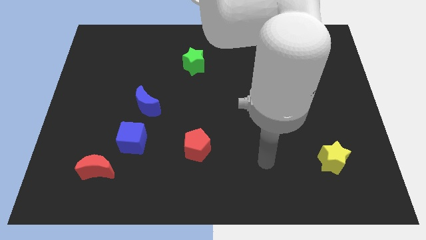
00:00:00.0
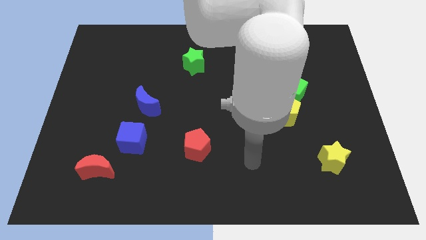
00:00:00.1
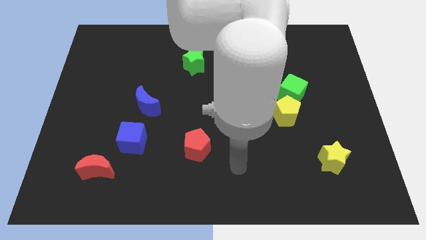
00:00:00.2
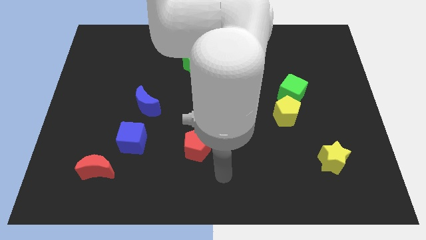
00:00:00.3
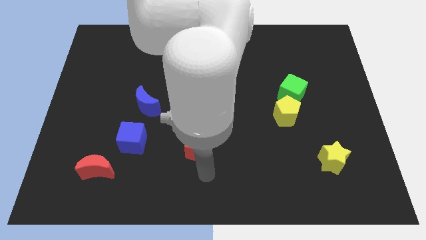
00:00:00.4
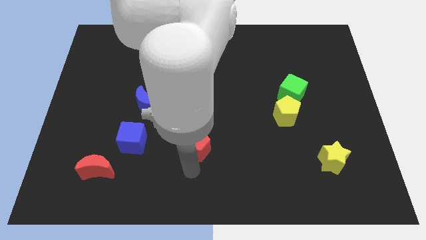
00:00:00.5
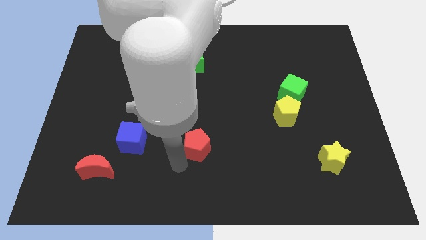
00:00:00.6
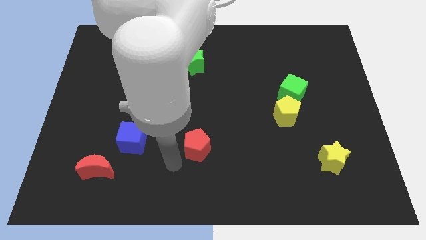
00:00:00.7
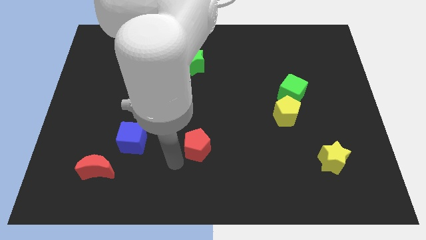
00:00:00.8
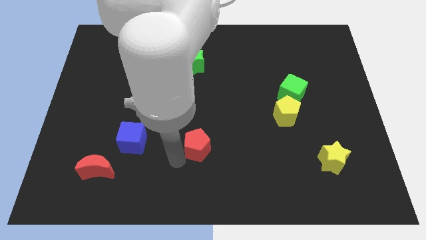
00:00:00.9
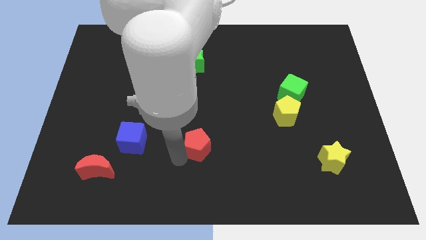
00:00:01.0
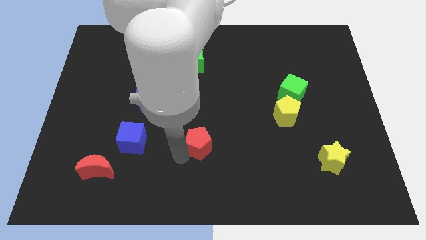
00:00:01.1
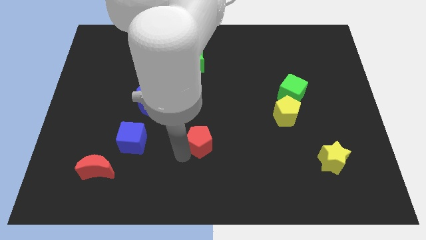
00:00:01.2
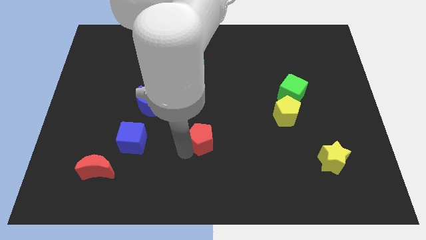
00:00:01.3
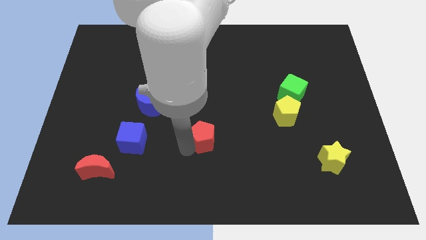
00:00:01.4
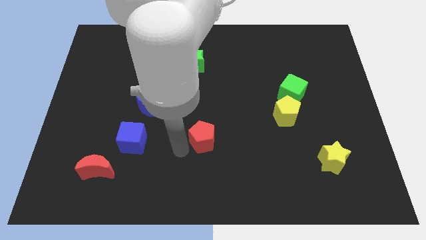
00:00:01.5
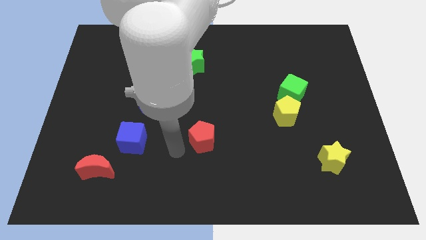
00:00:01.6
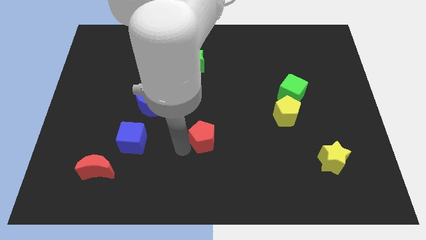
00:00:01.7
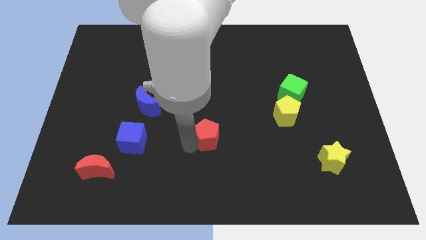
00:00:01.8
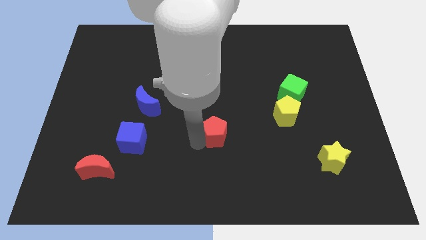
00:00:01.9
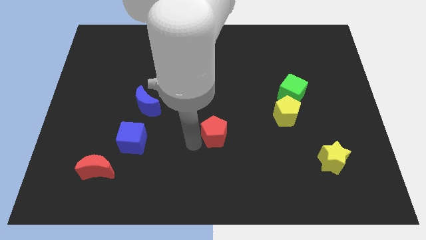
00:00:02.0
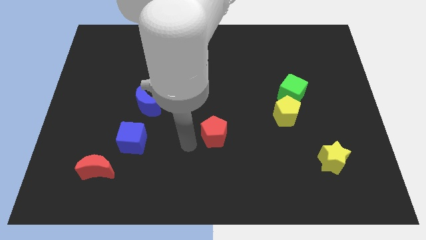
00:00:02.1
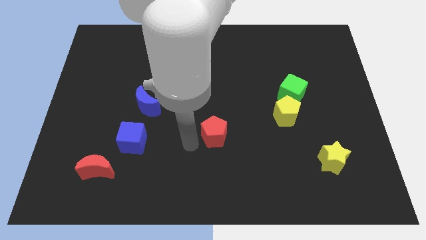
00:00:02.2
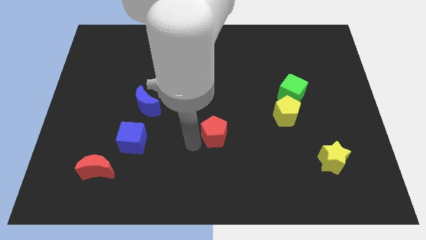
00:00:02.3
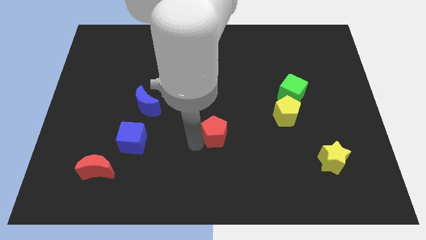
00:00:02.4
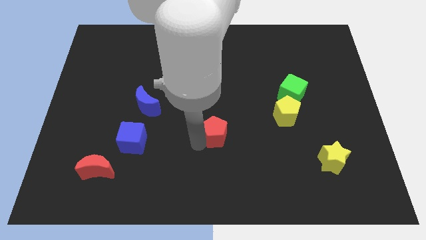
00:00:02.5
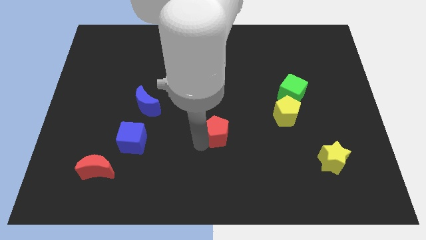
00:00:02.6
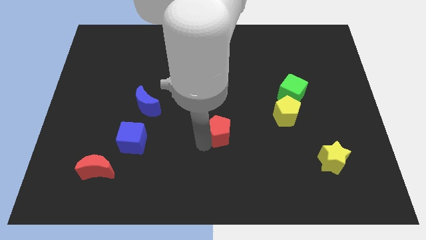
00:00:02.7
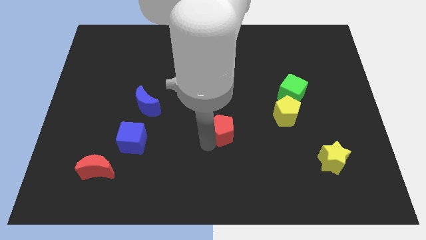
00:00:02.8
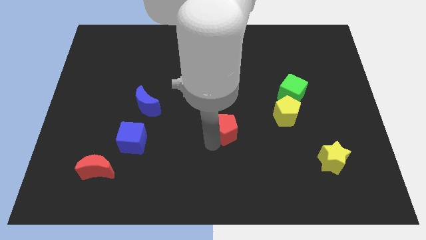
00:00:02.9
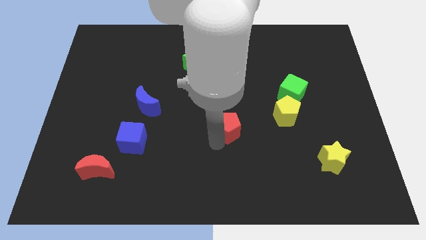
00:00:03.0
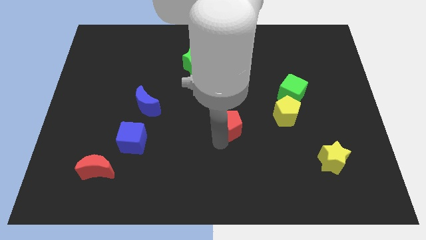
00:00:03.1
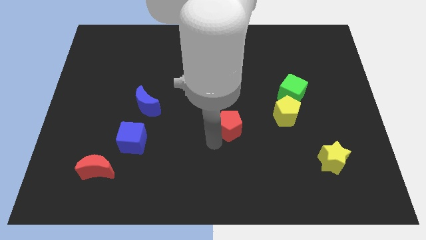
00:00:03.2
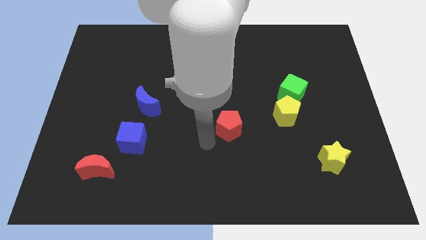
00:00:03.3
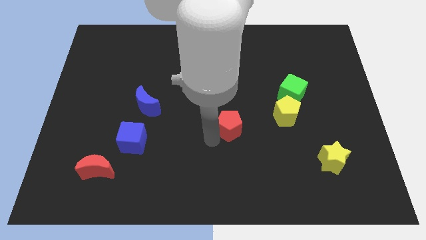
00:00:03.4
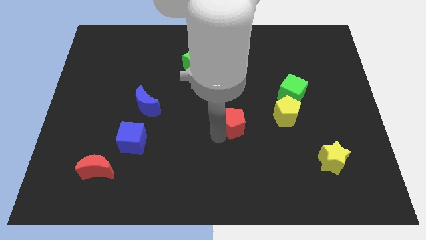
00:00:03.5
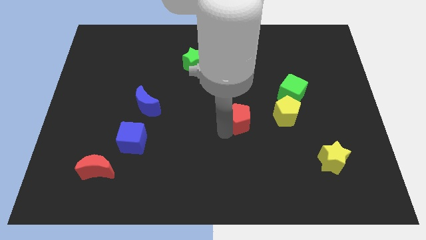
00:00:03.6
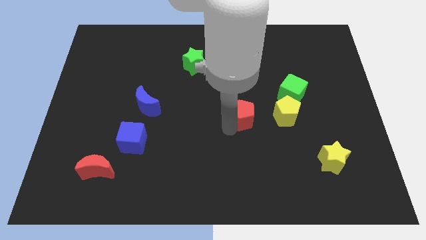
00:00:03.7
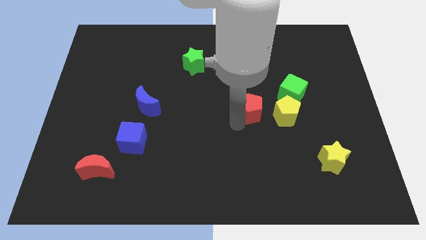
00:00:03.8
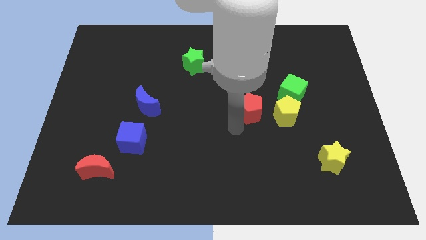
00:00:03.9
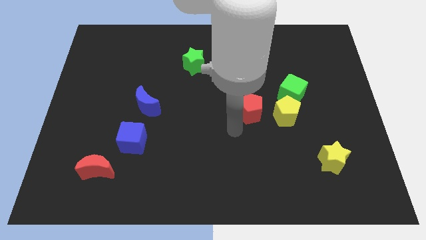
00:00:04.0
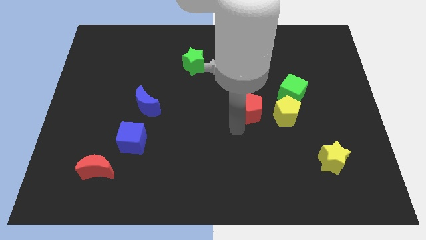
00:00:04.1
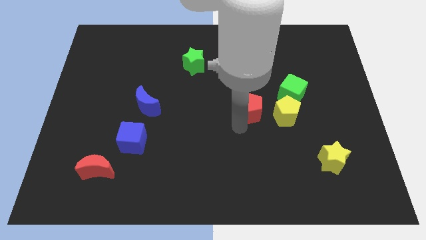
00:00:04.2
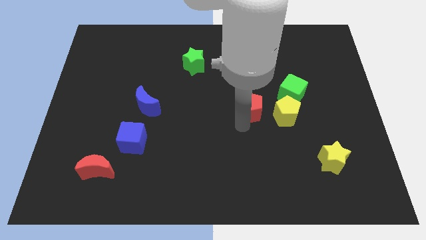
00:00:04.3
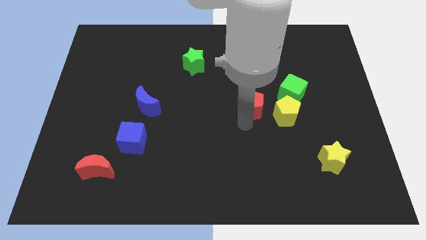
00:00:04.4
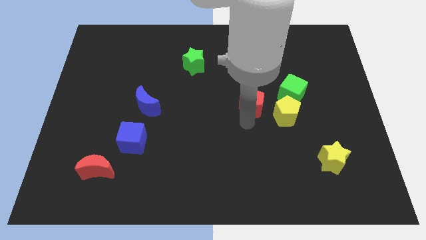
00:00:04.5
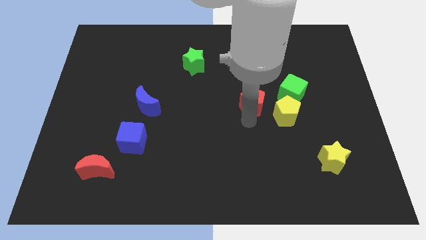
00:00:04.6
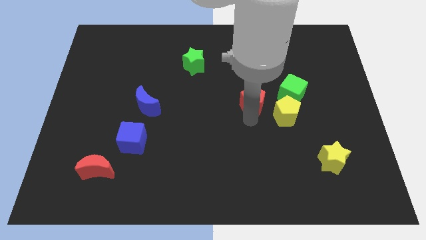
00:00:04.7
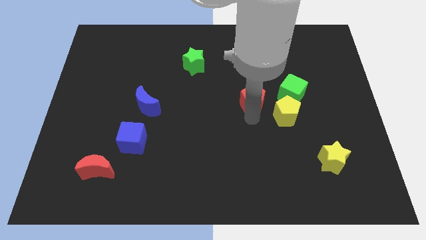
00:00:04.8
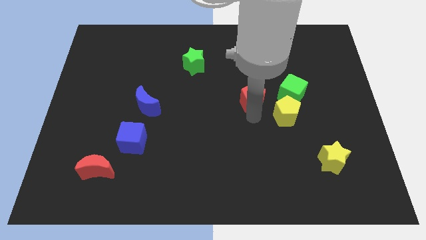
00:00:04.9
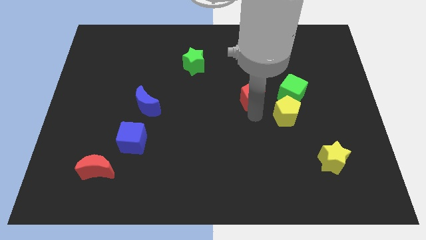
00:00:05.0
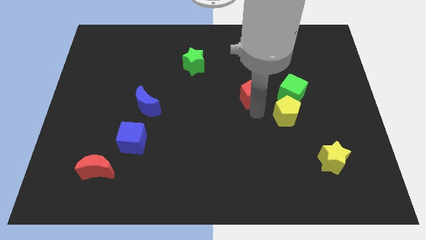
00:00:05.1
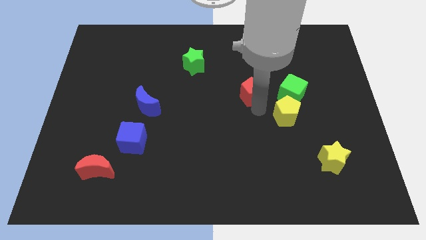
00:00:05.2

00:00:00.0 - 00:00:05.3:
slide the red pentagon diagonally up and right

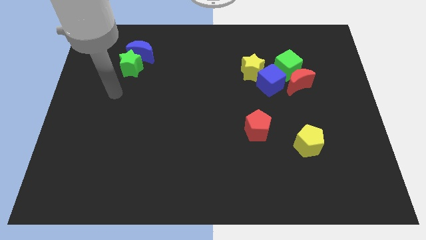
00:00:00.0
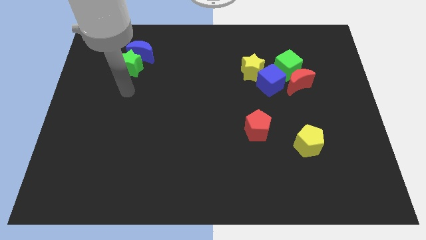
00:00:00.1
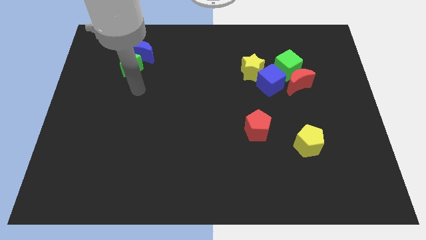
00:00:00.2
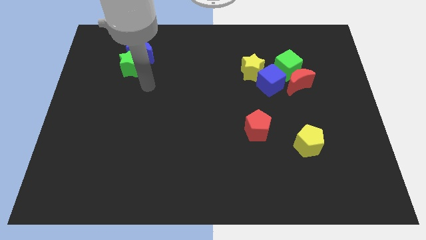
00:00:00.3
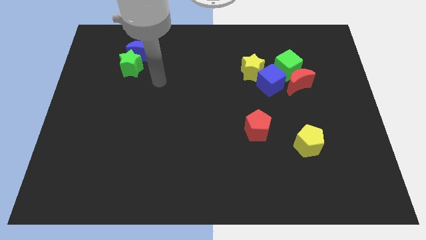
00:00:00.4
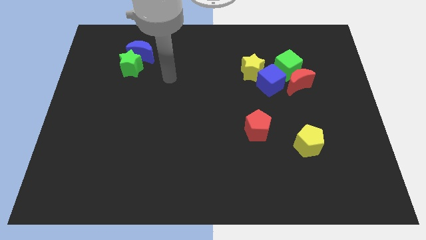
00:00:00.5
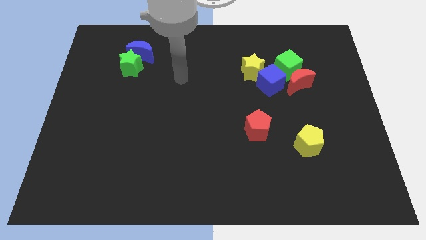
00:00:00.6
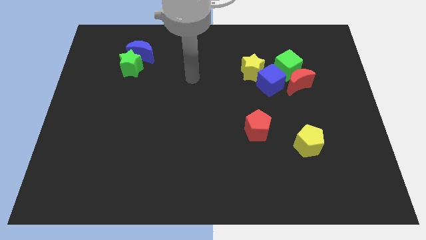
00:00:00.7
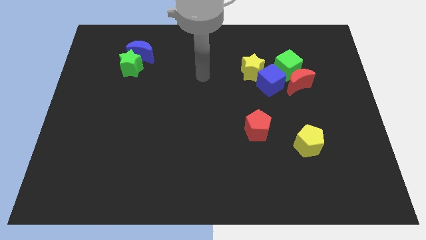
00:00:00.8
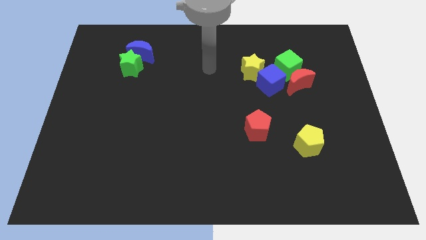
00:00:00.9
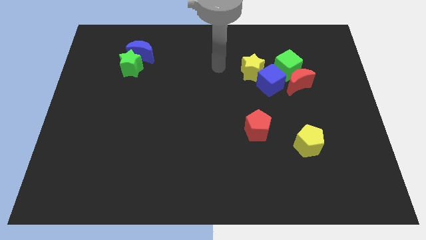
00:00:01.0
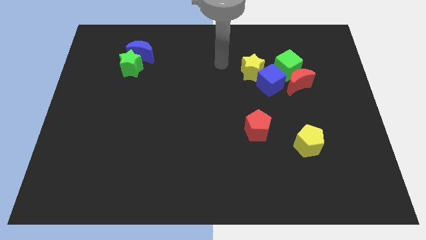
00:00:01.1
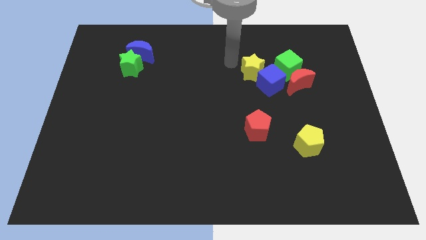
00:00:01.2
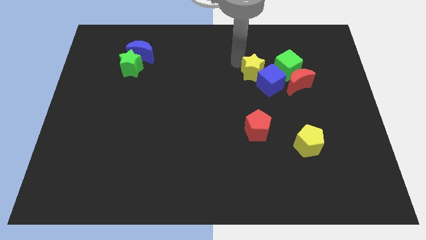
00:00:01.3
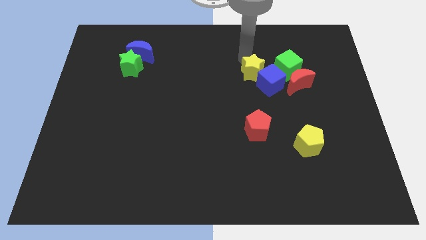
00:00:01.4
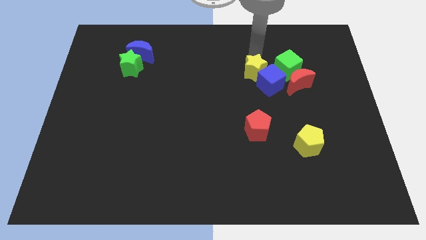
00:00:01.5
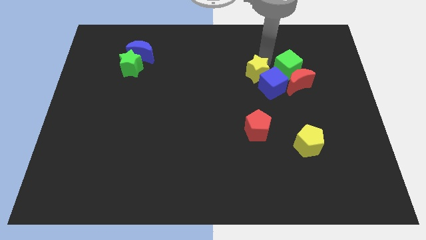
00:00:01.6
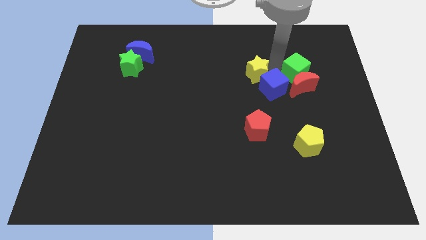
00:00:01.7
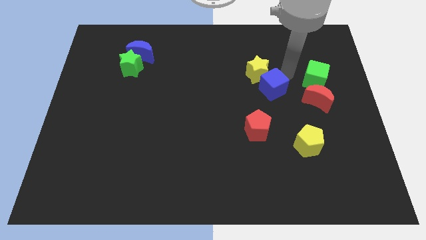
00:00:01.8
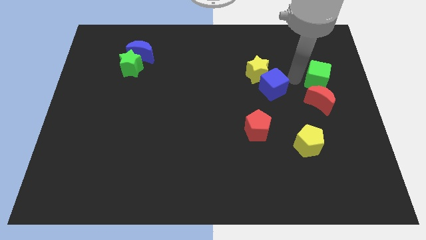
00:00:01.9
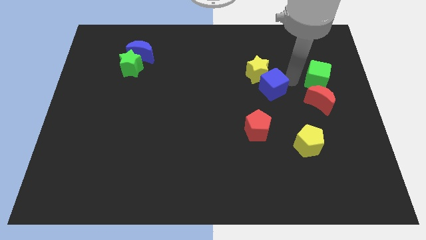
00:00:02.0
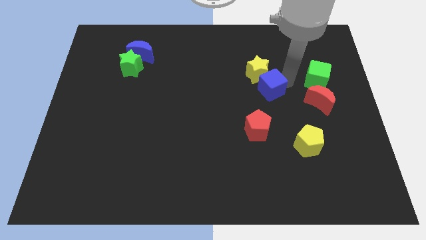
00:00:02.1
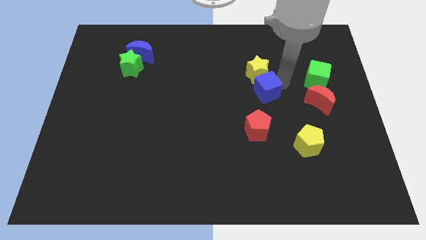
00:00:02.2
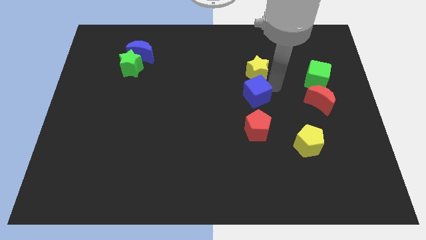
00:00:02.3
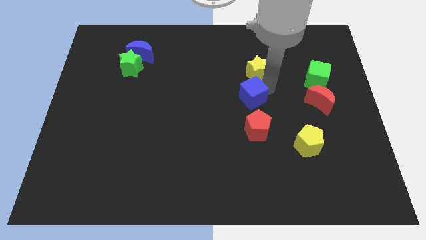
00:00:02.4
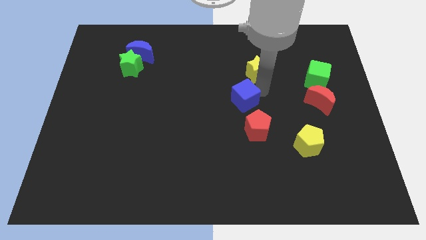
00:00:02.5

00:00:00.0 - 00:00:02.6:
slightly move the blue cube down and left diagonally

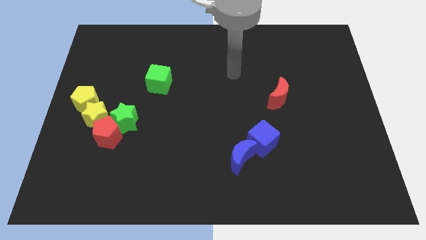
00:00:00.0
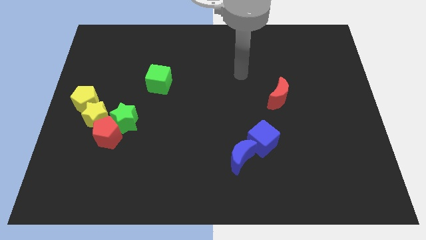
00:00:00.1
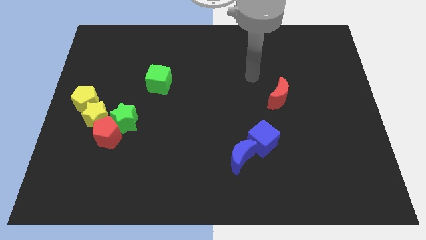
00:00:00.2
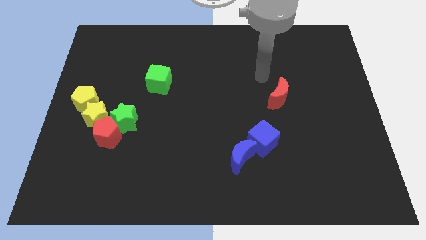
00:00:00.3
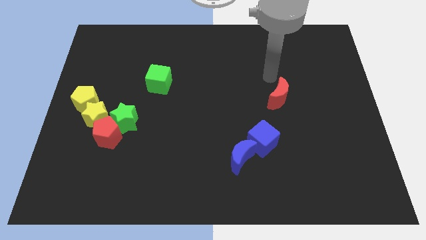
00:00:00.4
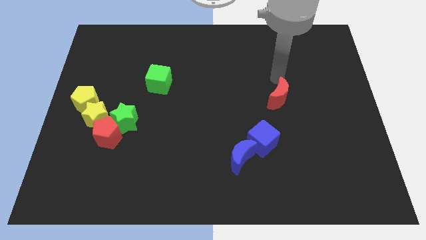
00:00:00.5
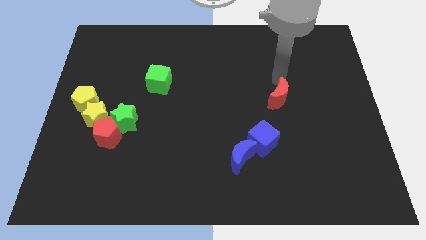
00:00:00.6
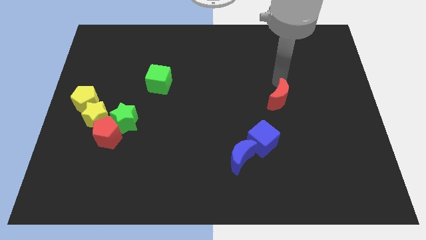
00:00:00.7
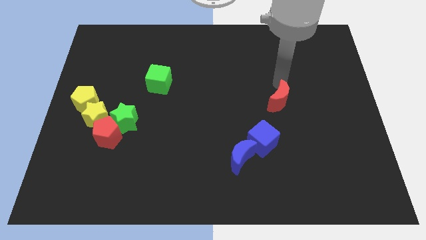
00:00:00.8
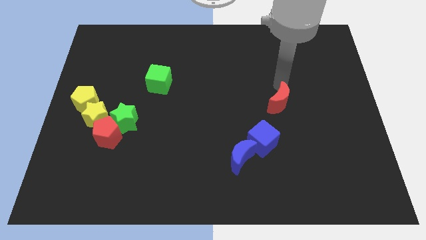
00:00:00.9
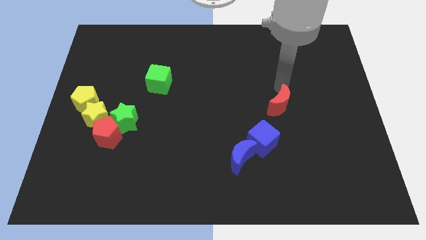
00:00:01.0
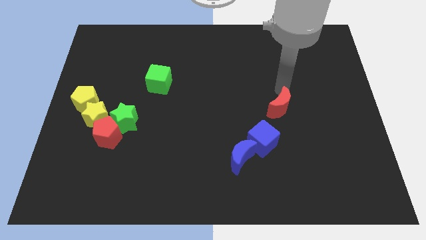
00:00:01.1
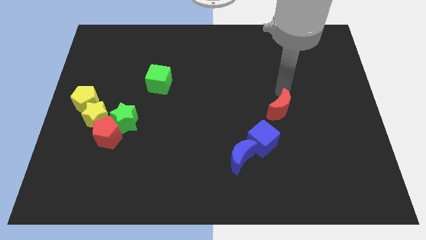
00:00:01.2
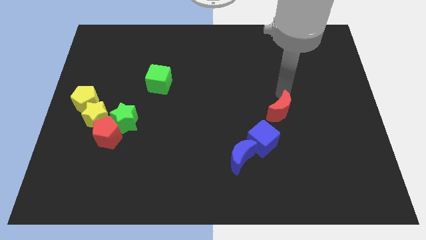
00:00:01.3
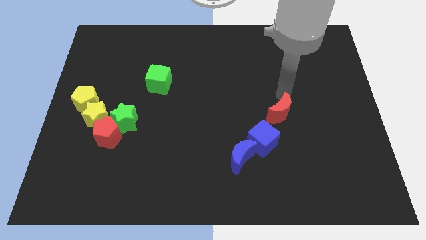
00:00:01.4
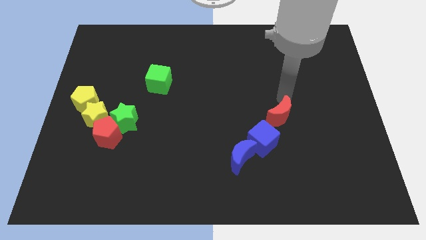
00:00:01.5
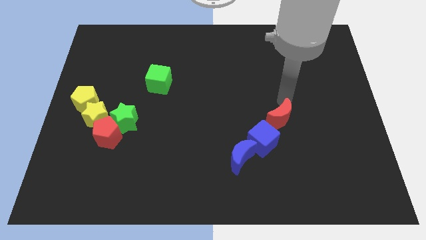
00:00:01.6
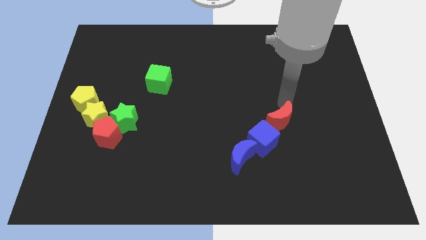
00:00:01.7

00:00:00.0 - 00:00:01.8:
slide the red moon a bit downwards
